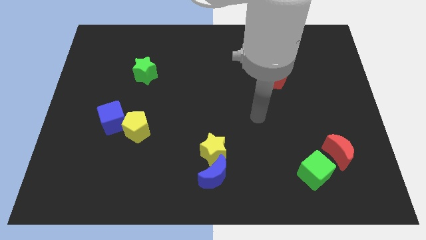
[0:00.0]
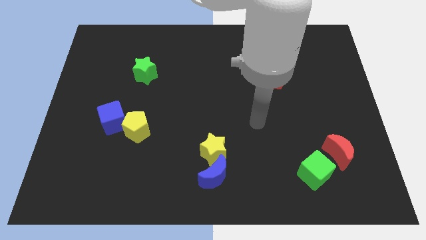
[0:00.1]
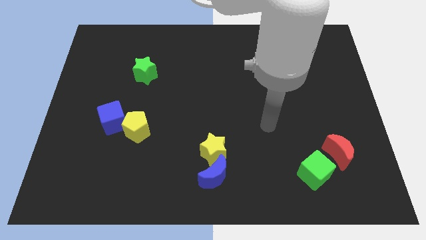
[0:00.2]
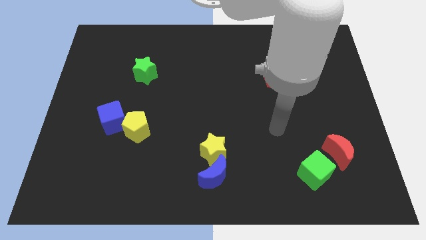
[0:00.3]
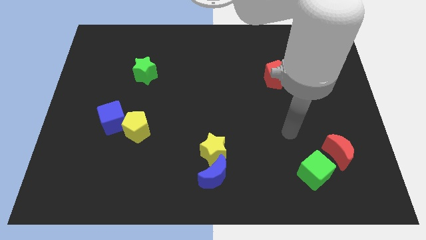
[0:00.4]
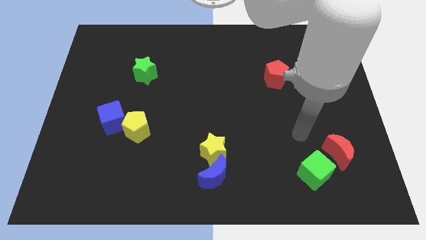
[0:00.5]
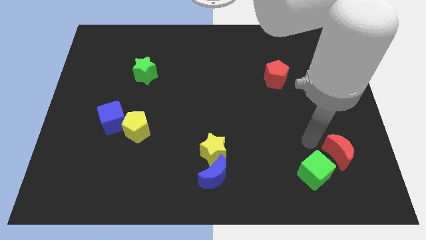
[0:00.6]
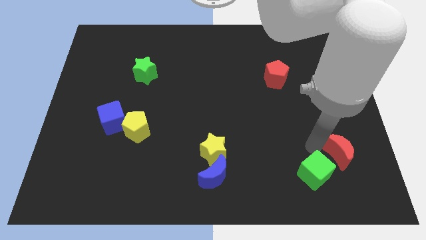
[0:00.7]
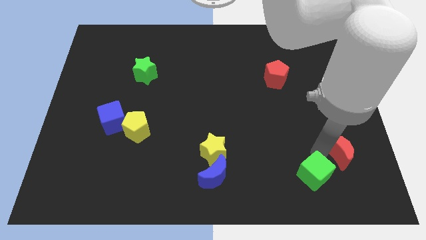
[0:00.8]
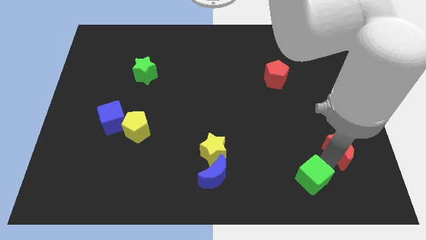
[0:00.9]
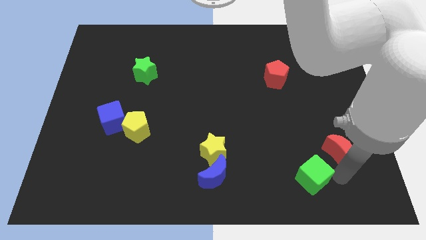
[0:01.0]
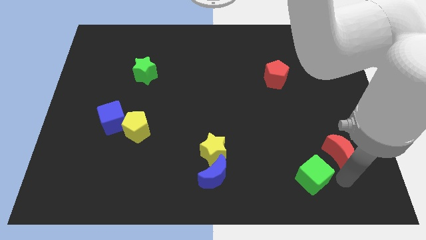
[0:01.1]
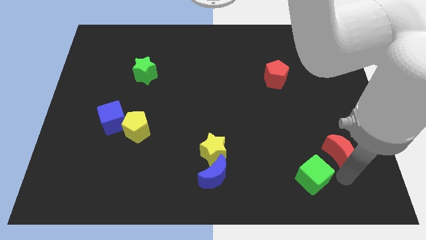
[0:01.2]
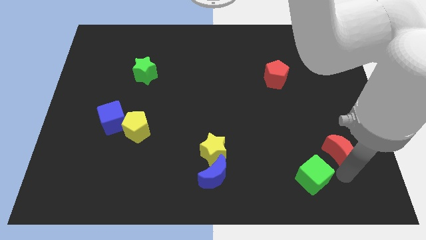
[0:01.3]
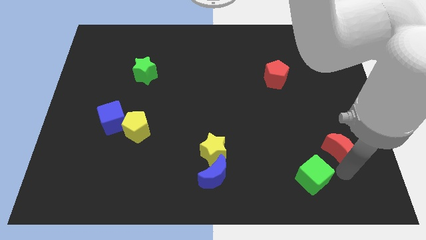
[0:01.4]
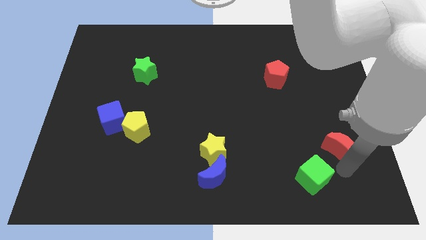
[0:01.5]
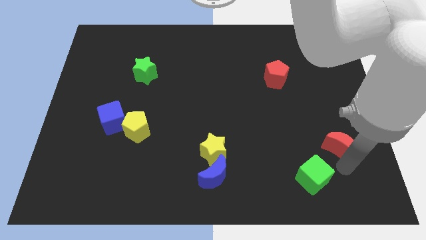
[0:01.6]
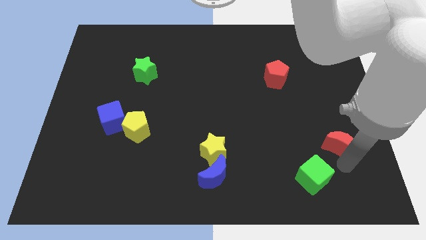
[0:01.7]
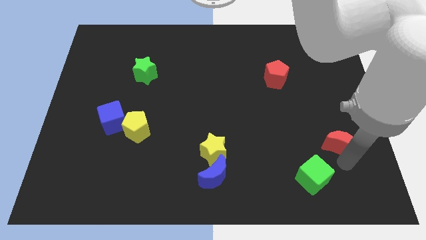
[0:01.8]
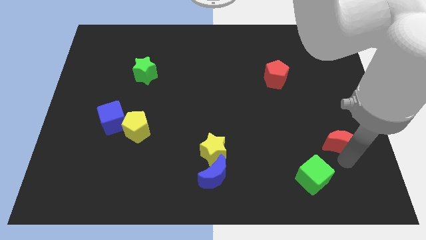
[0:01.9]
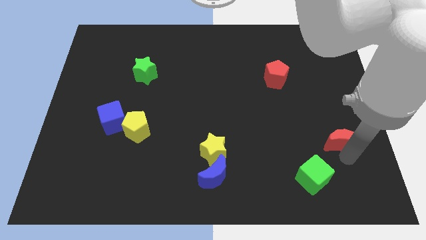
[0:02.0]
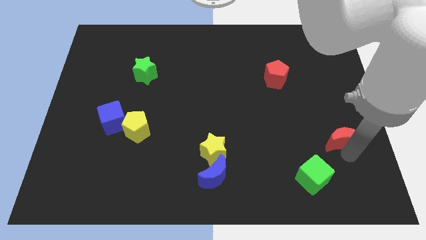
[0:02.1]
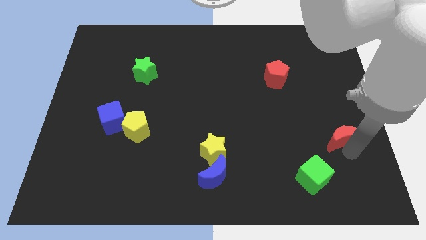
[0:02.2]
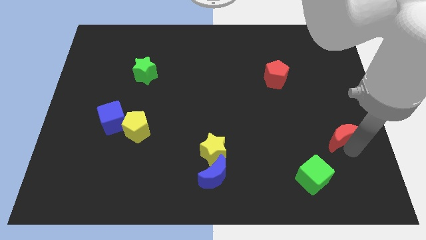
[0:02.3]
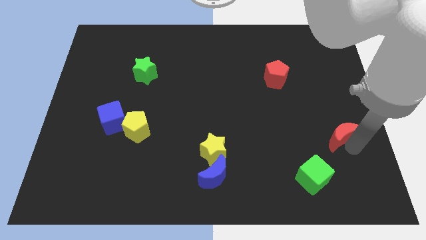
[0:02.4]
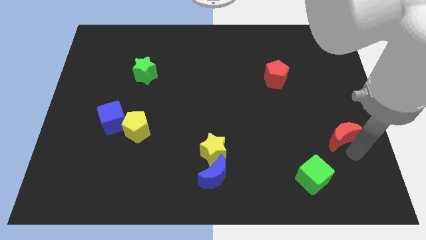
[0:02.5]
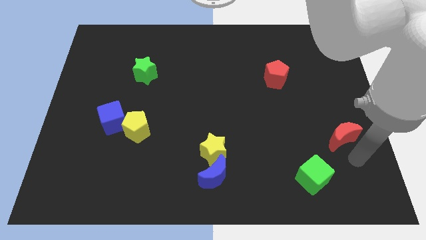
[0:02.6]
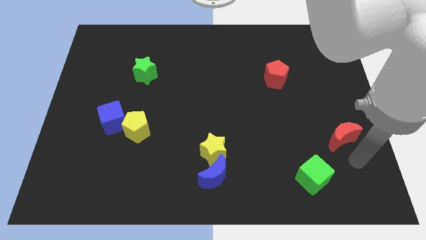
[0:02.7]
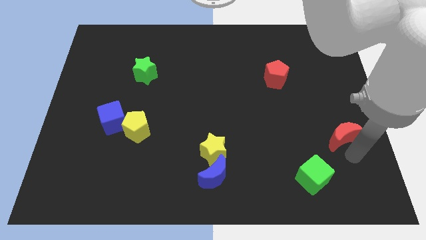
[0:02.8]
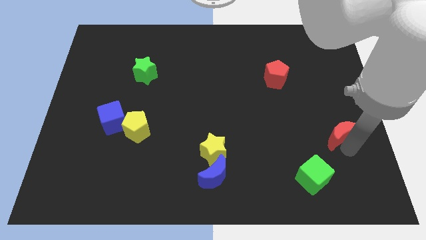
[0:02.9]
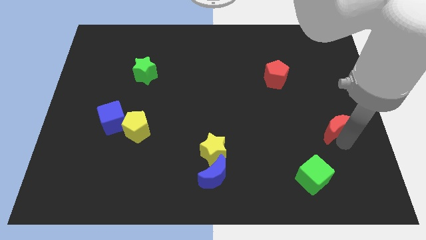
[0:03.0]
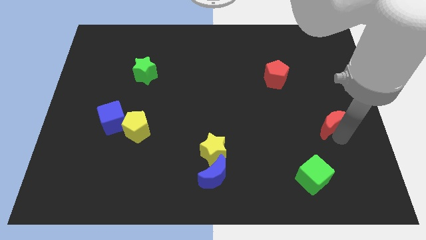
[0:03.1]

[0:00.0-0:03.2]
push the red moon a bit up

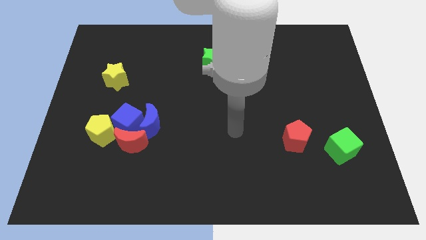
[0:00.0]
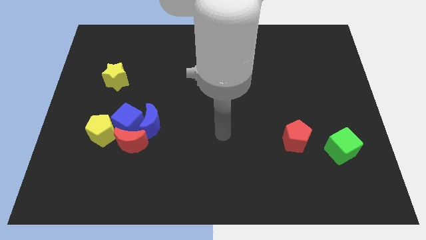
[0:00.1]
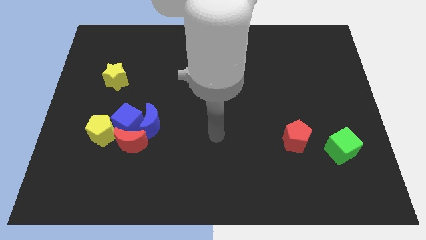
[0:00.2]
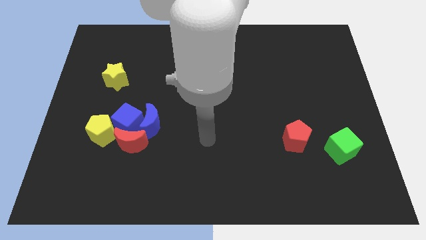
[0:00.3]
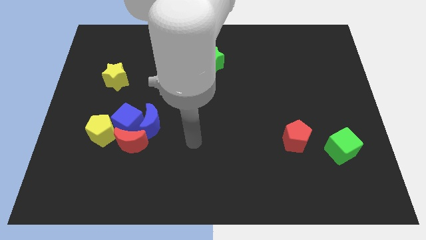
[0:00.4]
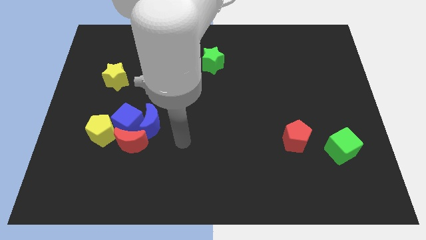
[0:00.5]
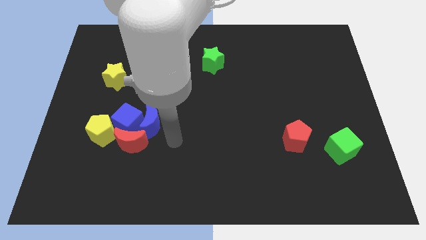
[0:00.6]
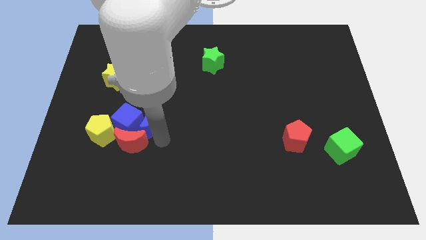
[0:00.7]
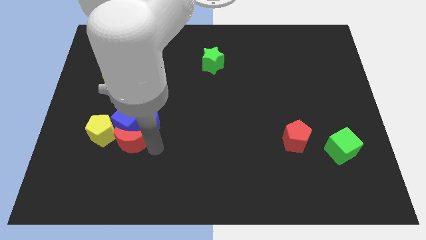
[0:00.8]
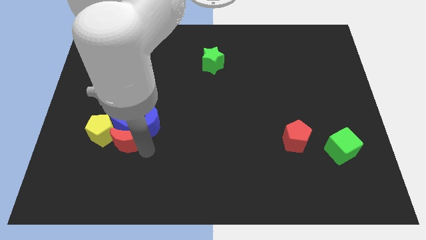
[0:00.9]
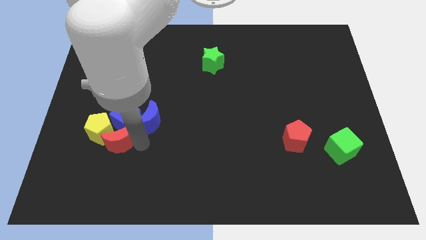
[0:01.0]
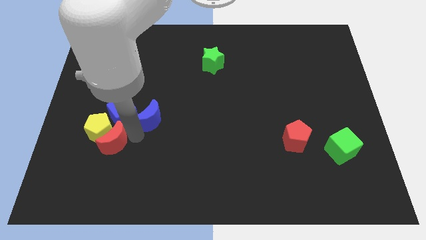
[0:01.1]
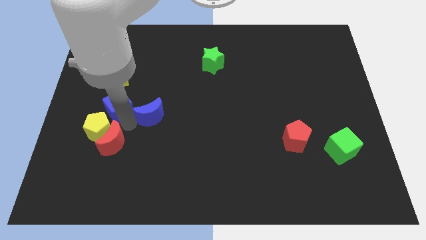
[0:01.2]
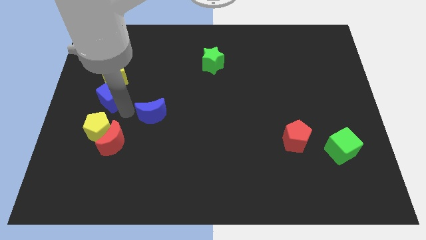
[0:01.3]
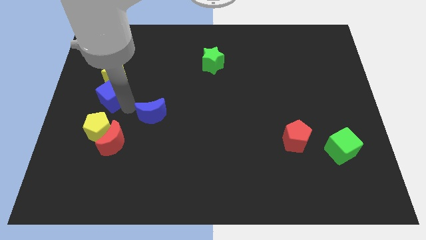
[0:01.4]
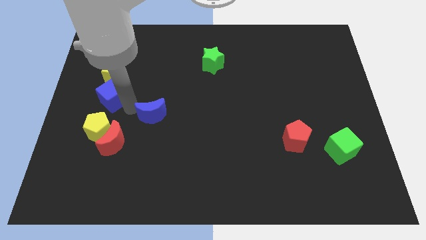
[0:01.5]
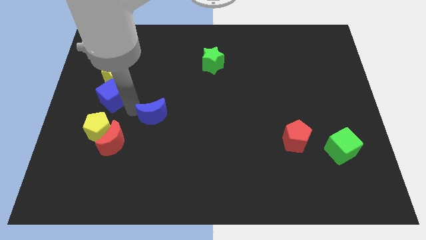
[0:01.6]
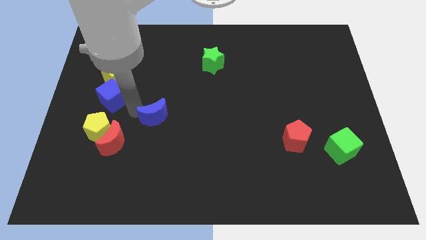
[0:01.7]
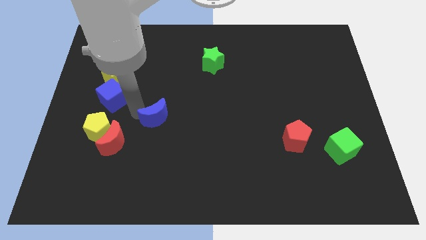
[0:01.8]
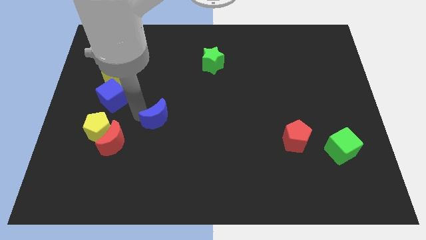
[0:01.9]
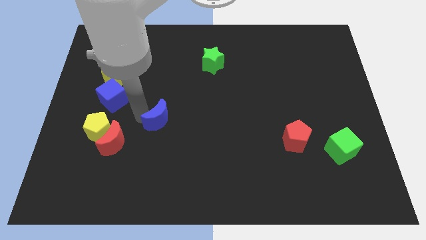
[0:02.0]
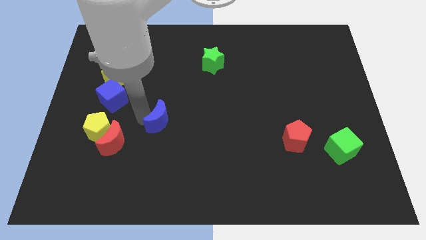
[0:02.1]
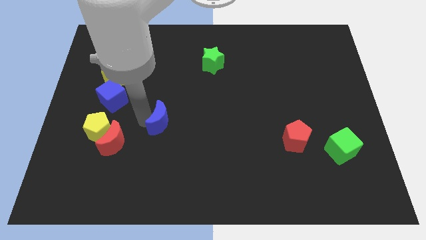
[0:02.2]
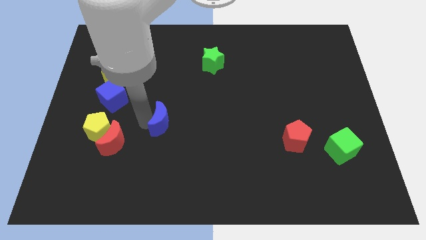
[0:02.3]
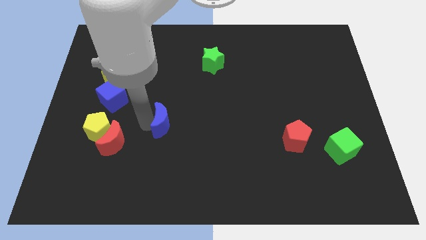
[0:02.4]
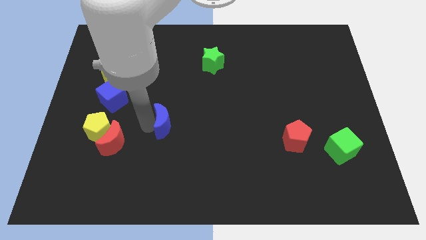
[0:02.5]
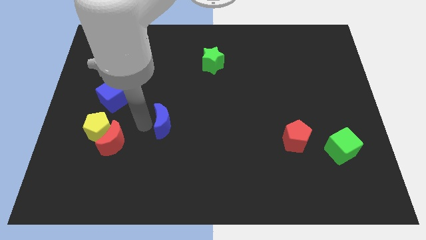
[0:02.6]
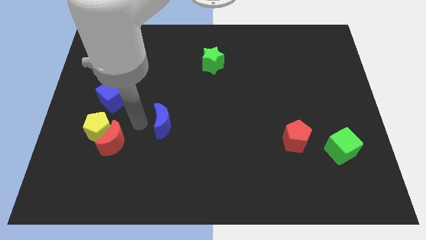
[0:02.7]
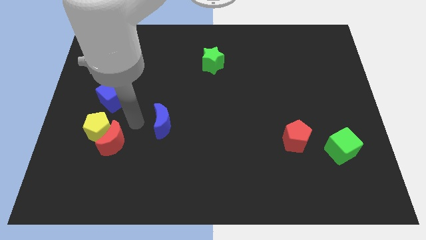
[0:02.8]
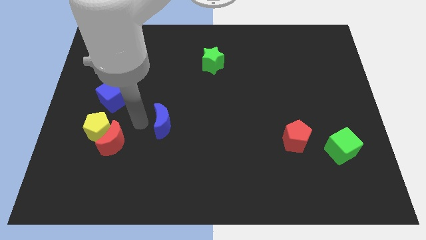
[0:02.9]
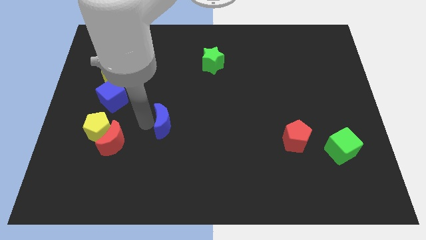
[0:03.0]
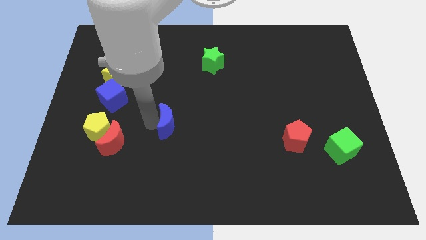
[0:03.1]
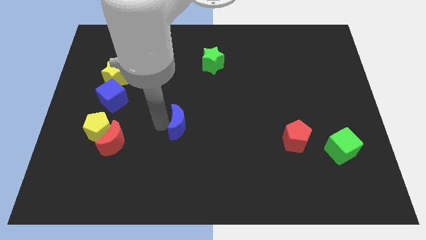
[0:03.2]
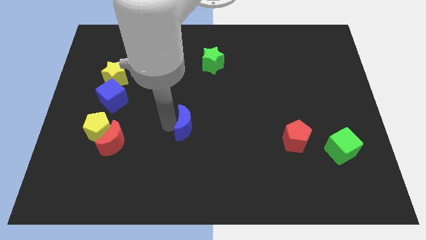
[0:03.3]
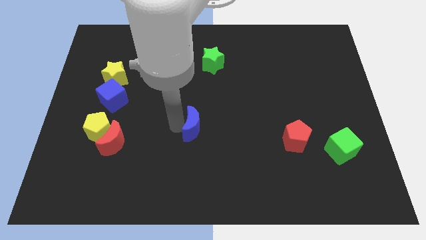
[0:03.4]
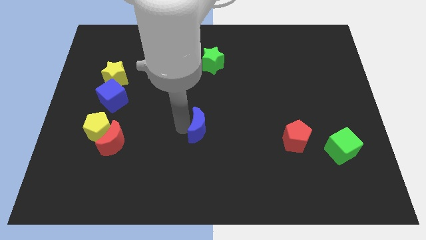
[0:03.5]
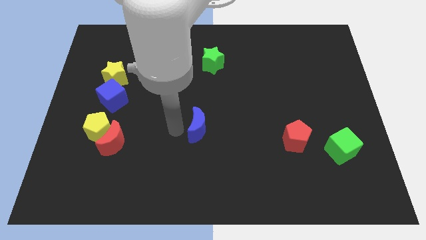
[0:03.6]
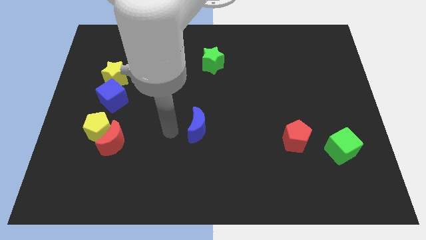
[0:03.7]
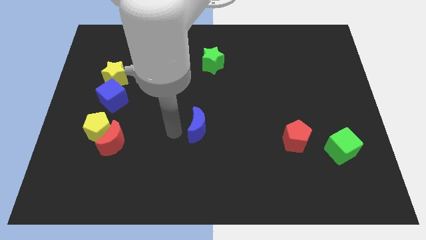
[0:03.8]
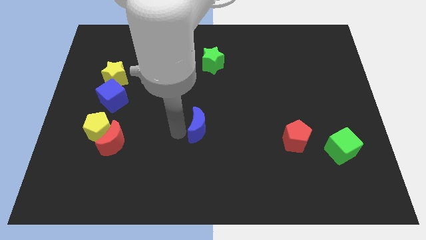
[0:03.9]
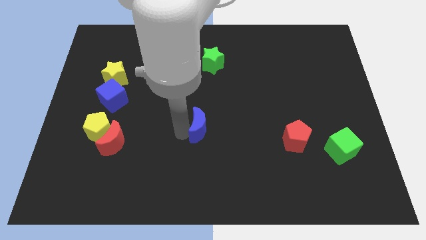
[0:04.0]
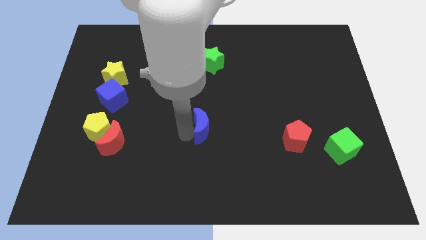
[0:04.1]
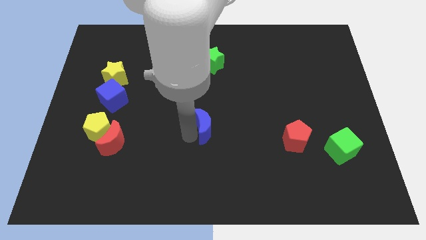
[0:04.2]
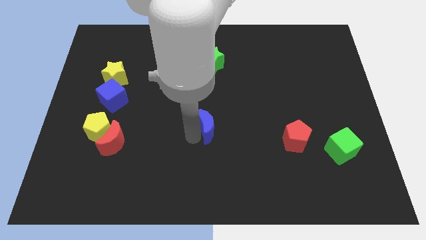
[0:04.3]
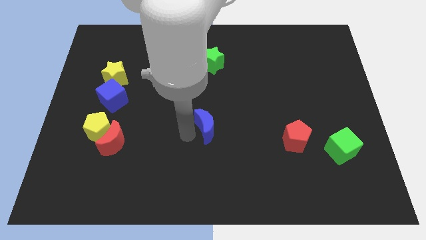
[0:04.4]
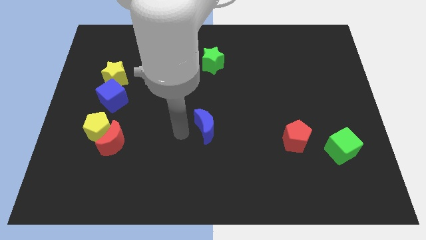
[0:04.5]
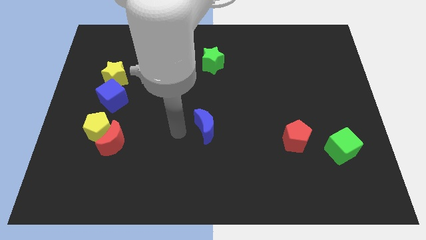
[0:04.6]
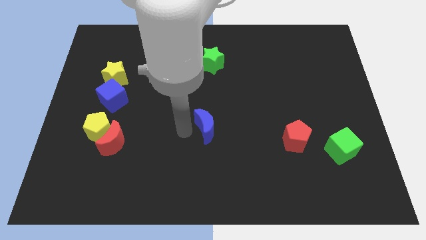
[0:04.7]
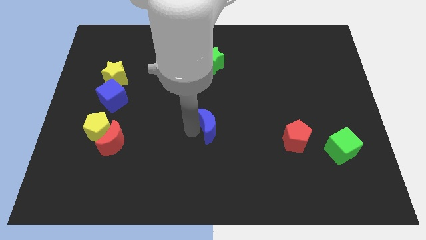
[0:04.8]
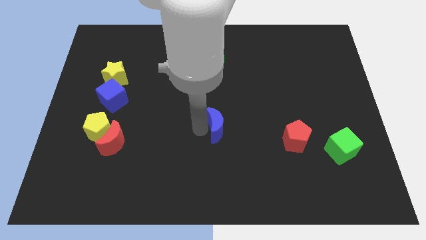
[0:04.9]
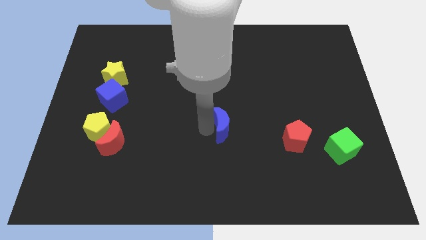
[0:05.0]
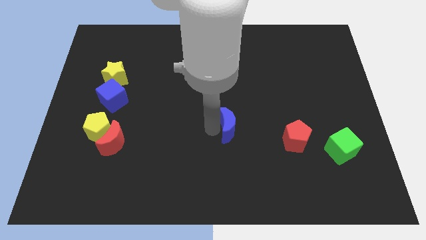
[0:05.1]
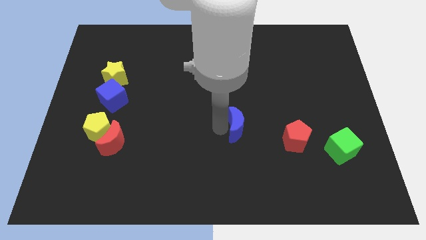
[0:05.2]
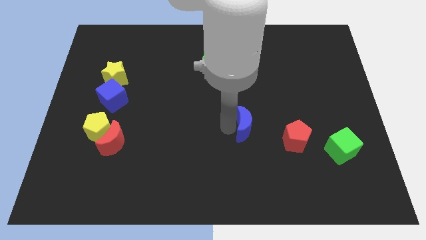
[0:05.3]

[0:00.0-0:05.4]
move the blue moon right

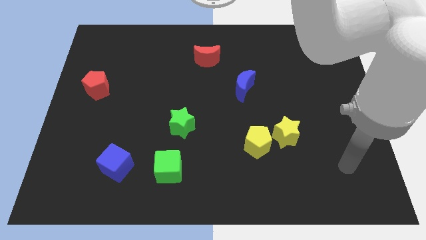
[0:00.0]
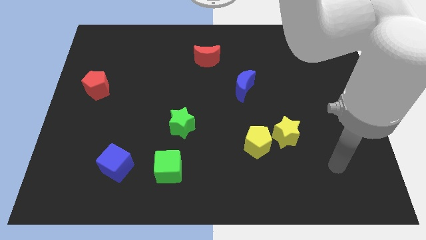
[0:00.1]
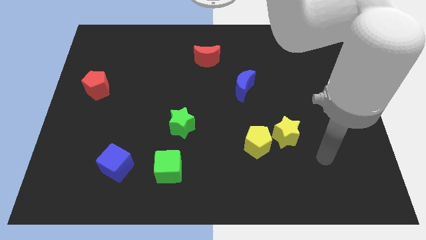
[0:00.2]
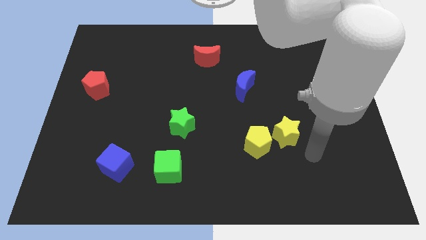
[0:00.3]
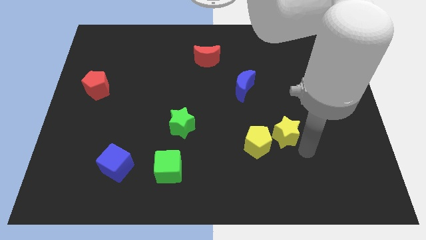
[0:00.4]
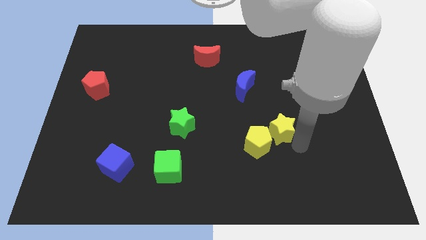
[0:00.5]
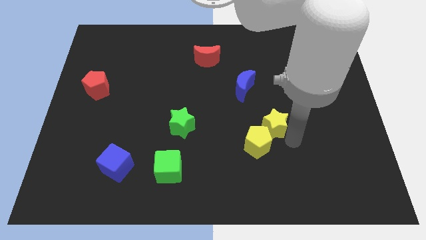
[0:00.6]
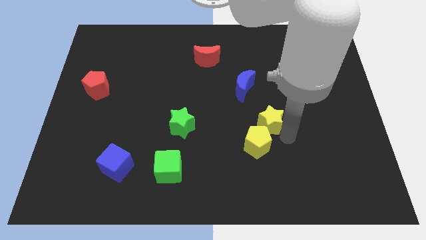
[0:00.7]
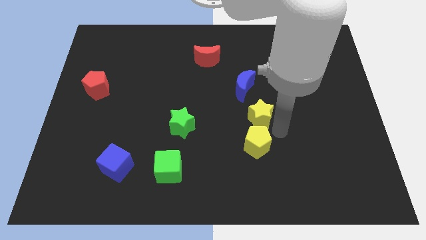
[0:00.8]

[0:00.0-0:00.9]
slightly slide the yellow star upwards and to the left
